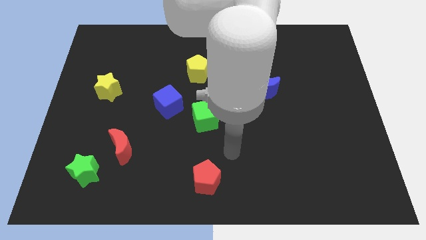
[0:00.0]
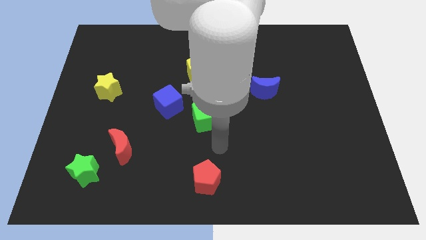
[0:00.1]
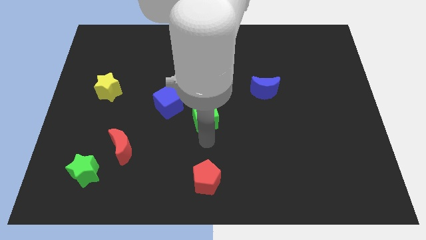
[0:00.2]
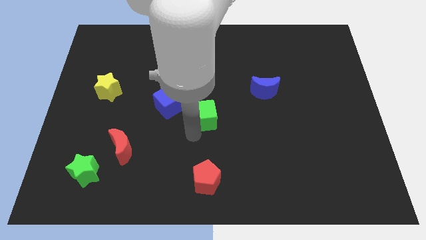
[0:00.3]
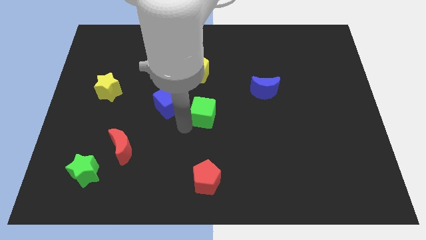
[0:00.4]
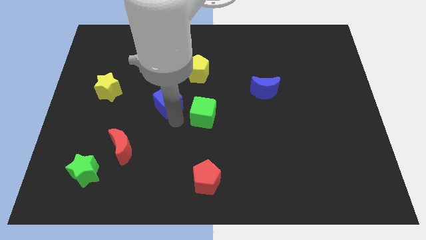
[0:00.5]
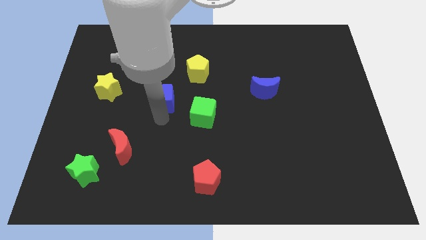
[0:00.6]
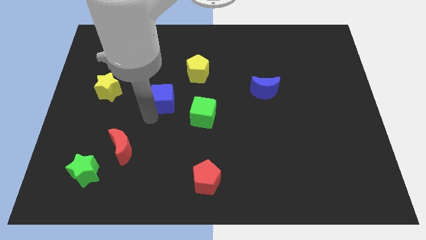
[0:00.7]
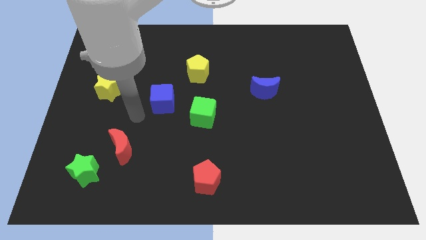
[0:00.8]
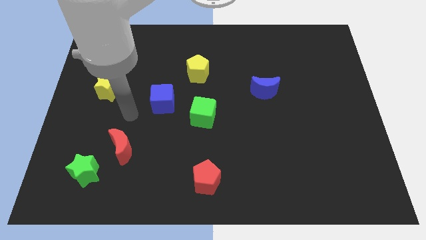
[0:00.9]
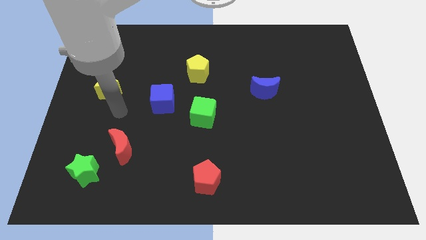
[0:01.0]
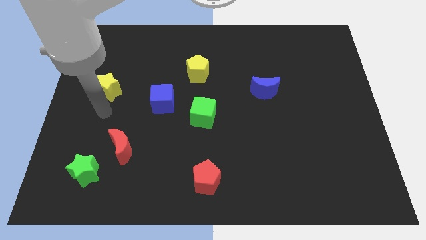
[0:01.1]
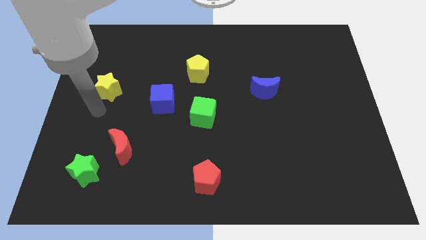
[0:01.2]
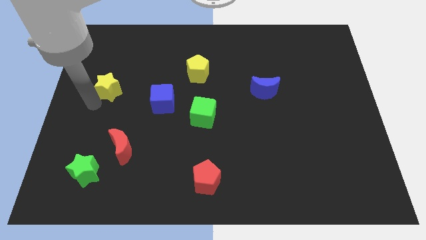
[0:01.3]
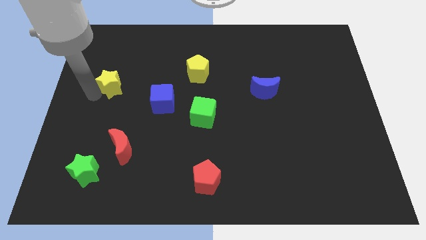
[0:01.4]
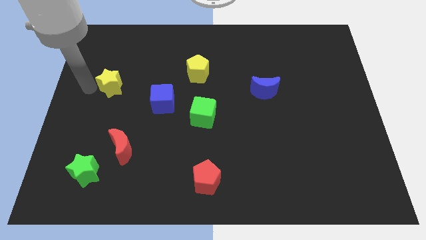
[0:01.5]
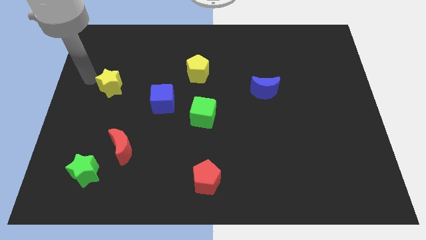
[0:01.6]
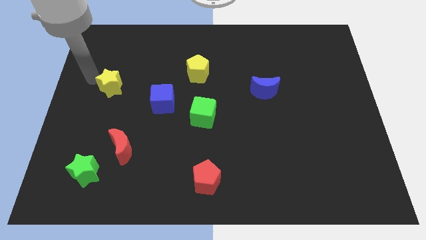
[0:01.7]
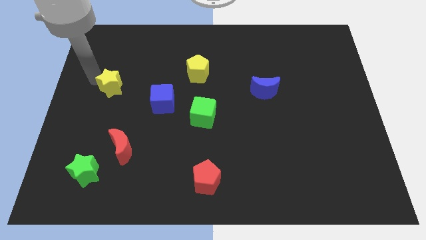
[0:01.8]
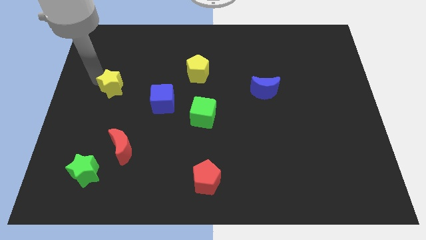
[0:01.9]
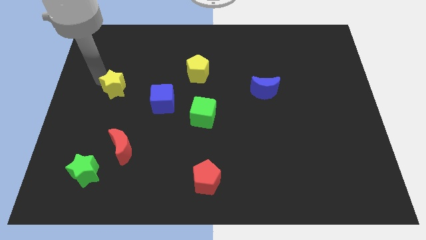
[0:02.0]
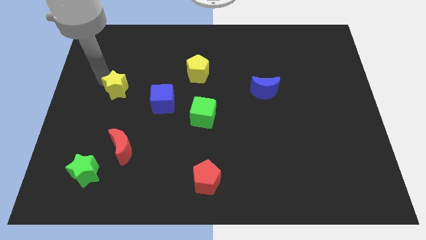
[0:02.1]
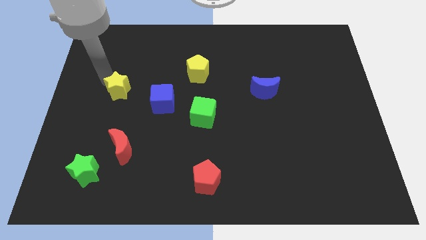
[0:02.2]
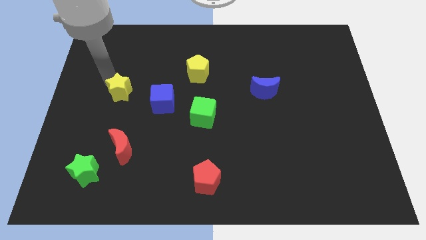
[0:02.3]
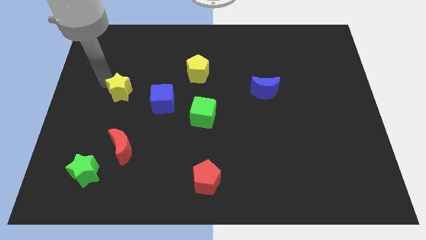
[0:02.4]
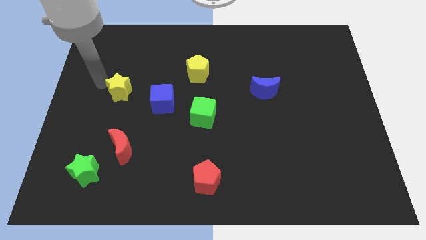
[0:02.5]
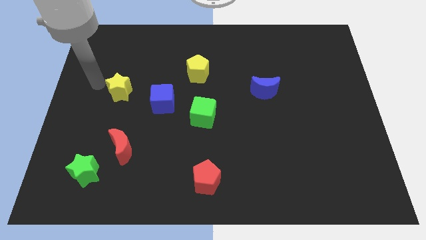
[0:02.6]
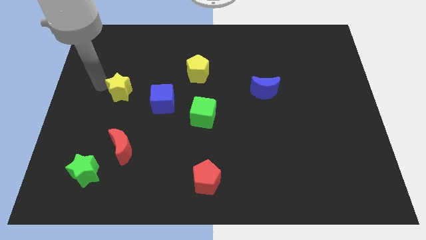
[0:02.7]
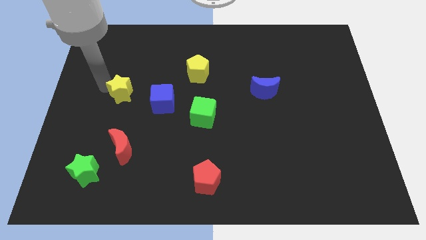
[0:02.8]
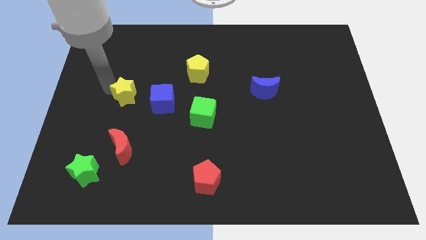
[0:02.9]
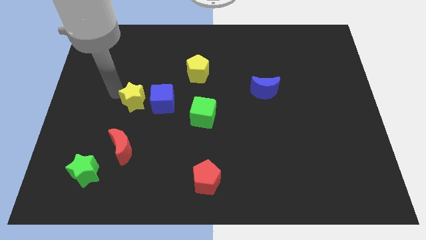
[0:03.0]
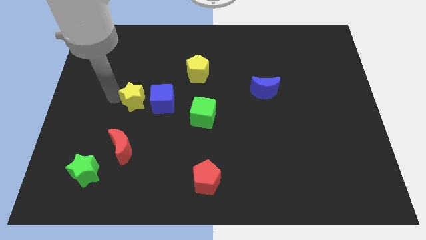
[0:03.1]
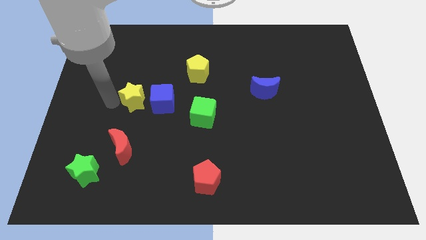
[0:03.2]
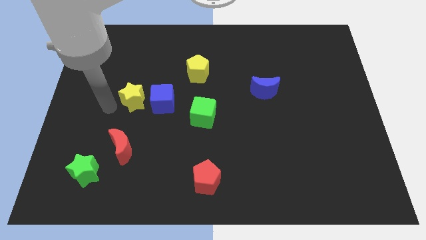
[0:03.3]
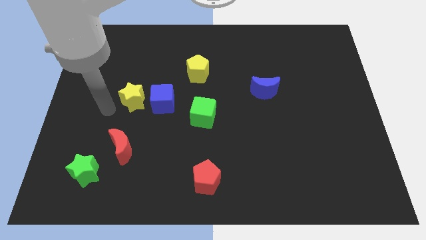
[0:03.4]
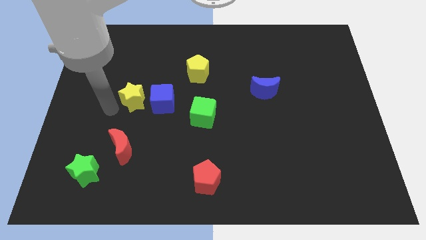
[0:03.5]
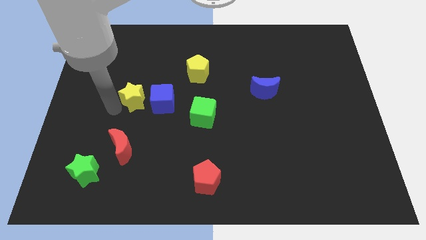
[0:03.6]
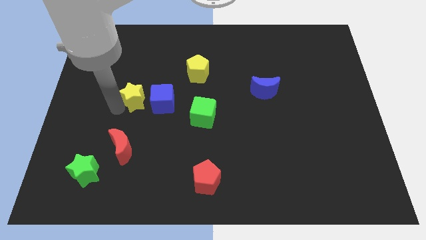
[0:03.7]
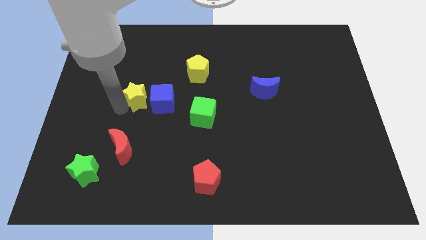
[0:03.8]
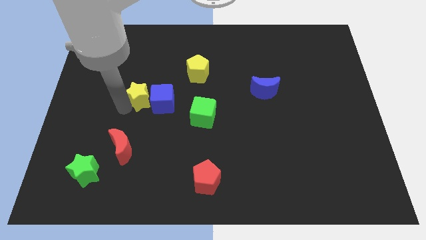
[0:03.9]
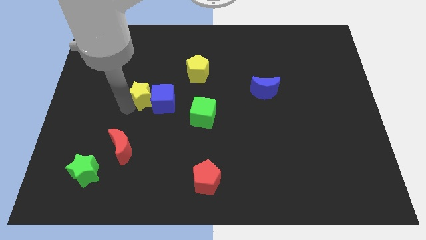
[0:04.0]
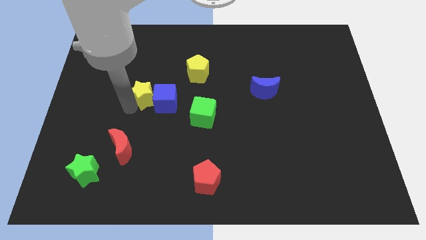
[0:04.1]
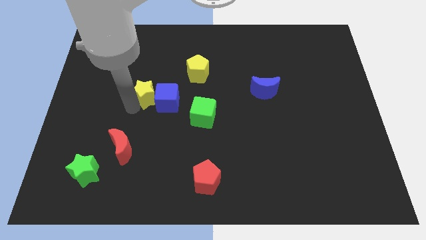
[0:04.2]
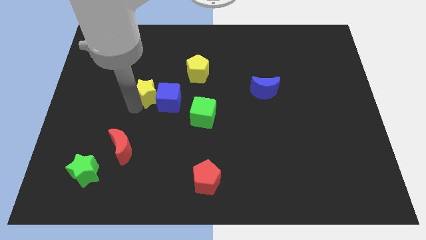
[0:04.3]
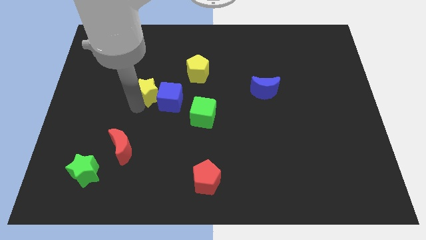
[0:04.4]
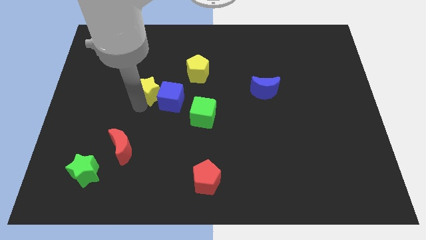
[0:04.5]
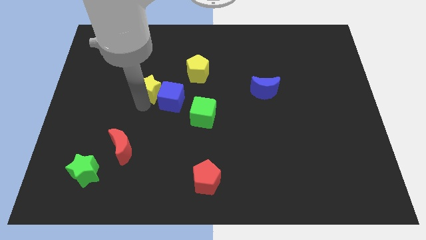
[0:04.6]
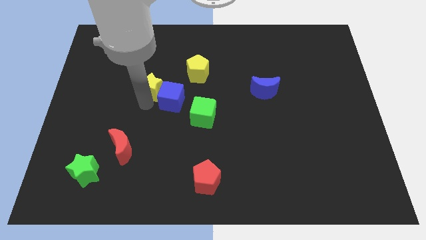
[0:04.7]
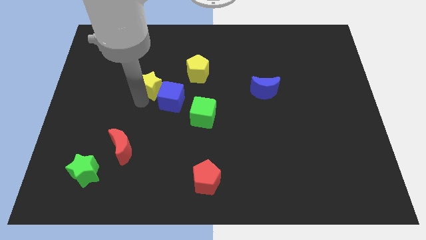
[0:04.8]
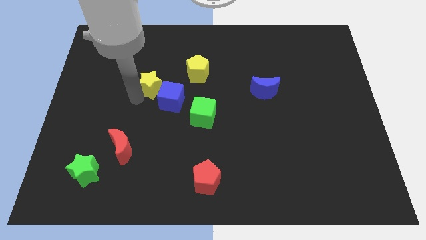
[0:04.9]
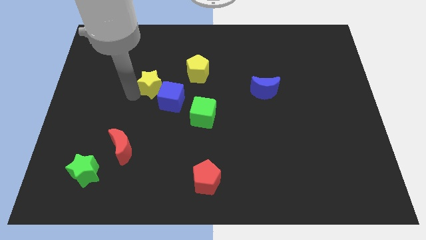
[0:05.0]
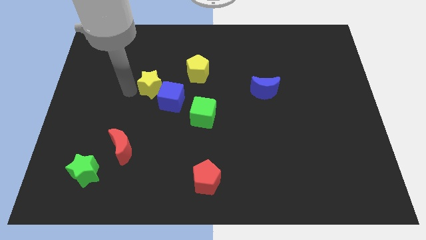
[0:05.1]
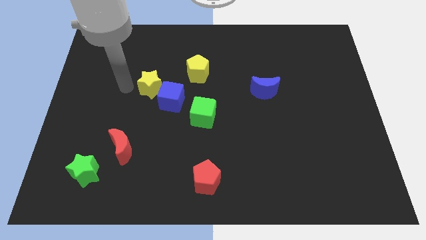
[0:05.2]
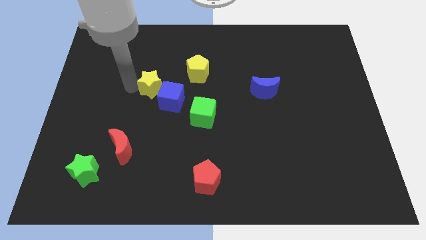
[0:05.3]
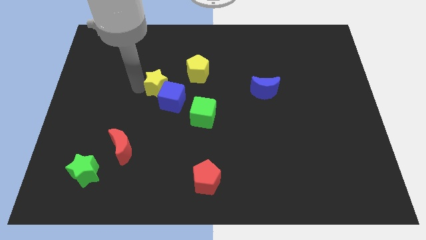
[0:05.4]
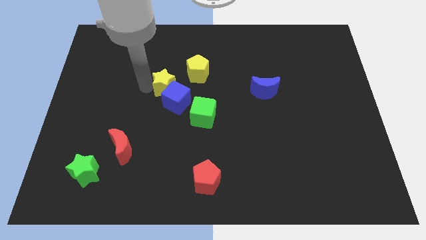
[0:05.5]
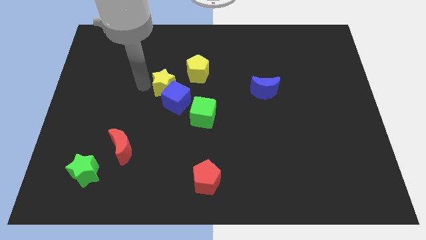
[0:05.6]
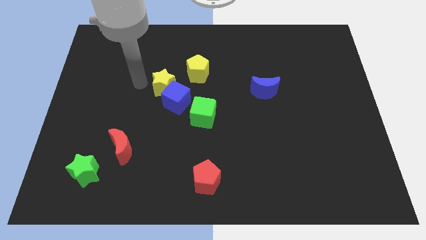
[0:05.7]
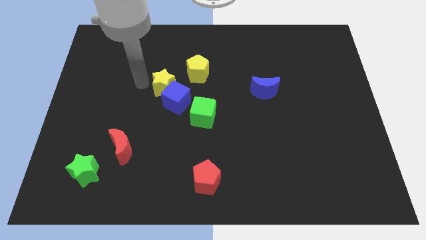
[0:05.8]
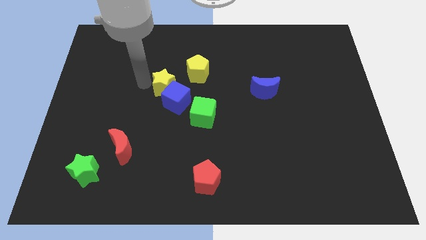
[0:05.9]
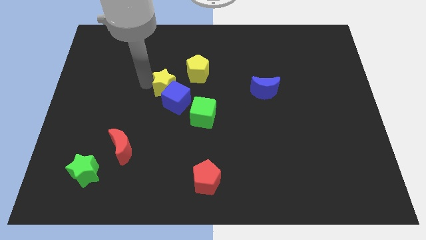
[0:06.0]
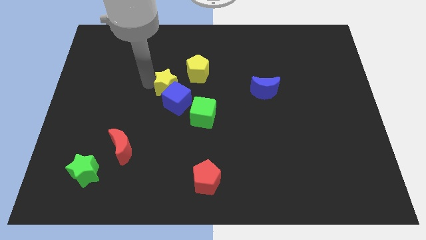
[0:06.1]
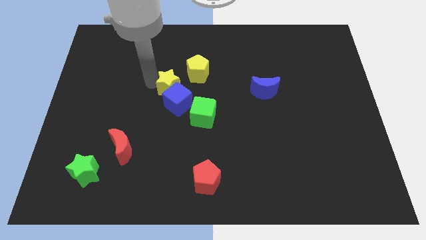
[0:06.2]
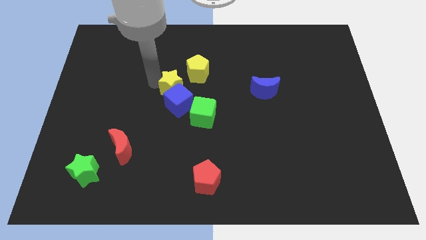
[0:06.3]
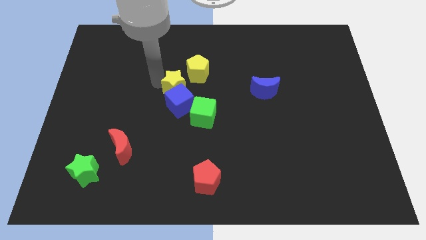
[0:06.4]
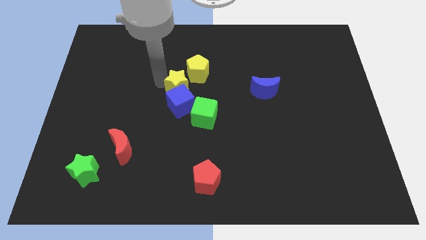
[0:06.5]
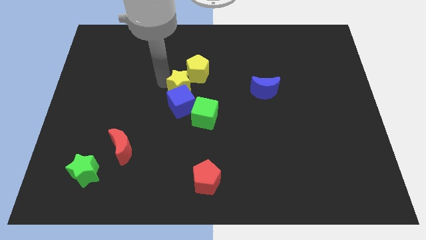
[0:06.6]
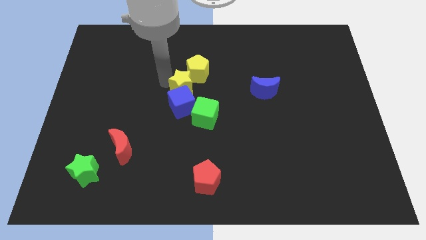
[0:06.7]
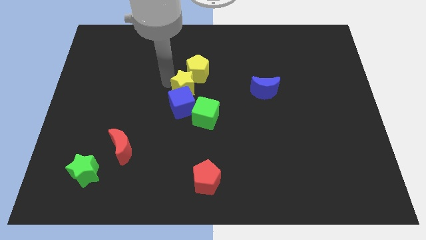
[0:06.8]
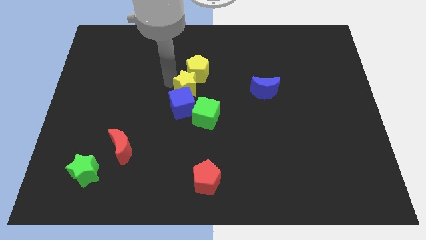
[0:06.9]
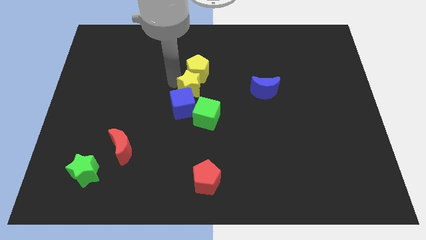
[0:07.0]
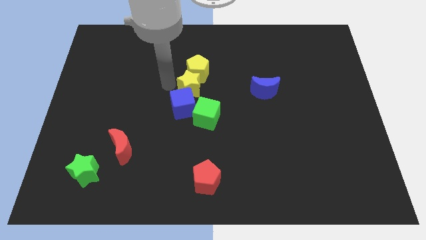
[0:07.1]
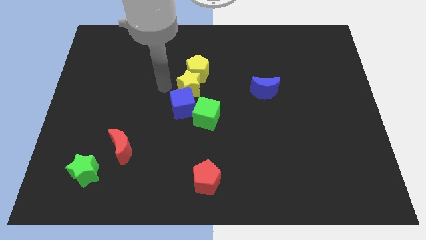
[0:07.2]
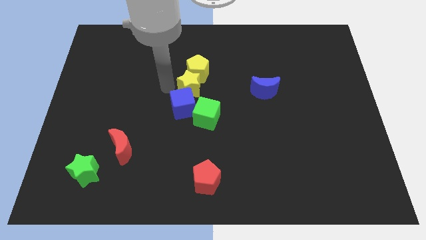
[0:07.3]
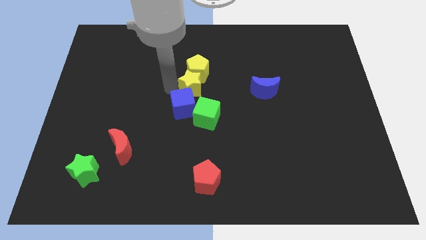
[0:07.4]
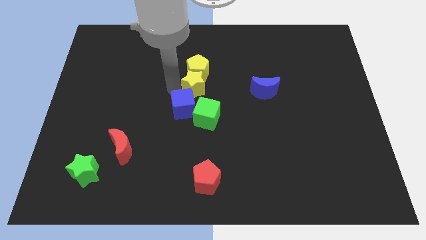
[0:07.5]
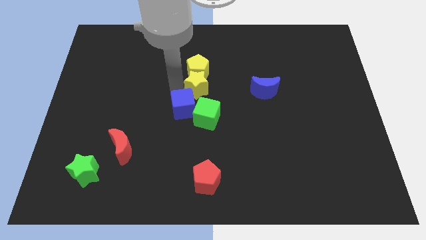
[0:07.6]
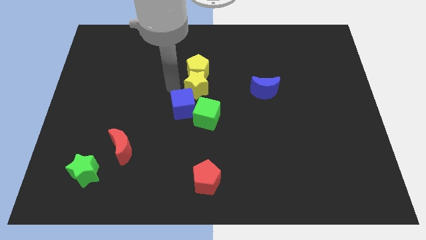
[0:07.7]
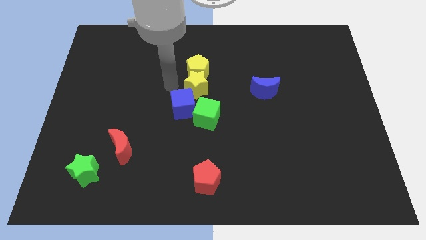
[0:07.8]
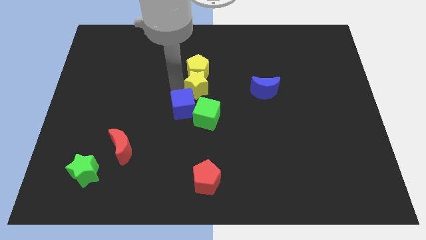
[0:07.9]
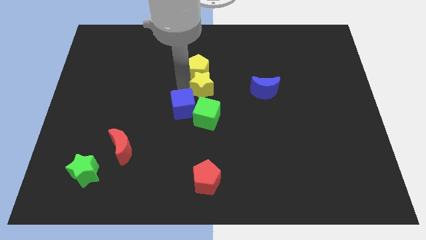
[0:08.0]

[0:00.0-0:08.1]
slide the yellow star left of the blue moon
